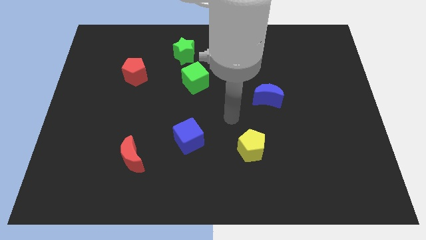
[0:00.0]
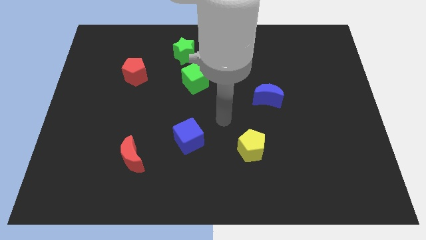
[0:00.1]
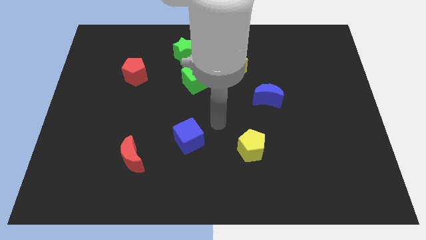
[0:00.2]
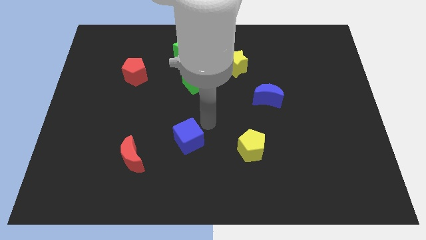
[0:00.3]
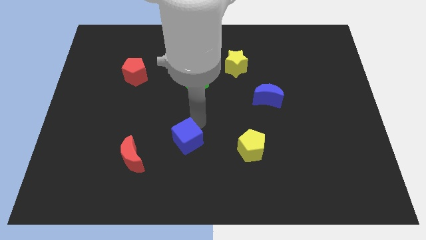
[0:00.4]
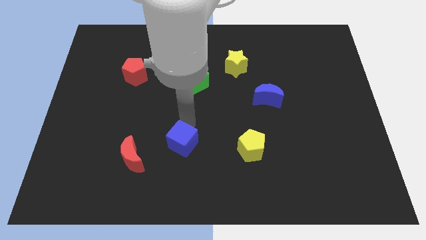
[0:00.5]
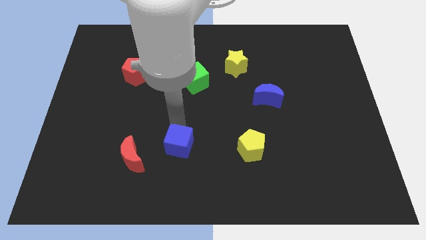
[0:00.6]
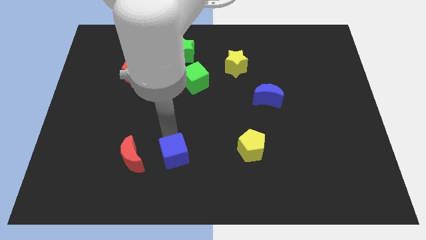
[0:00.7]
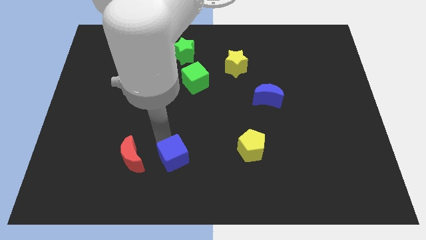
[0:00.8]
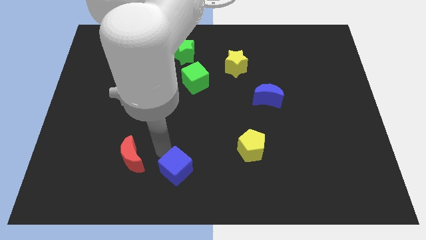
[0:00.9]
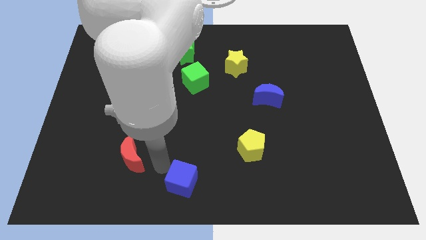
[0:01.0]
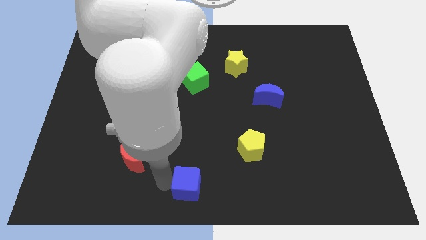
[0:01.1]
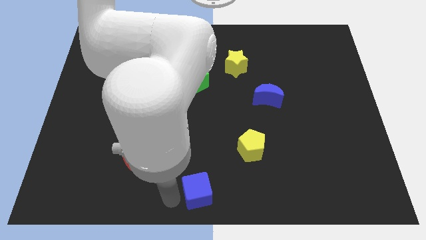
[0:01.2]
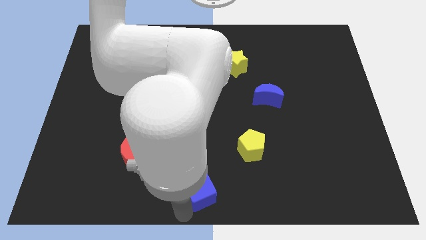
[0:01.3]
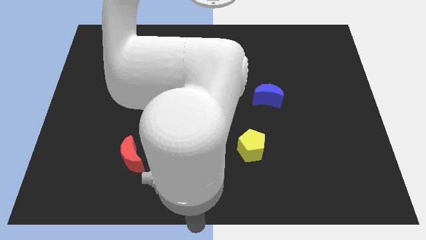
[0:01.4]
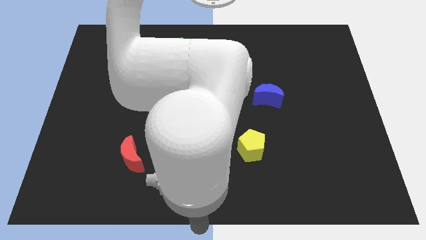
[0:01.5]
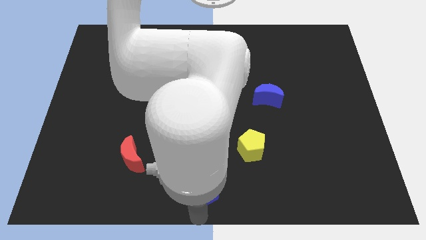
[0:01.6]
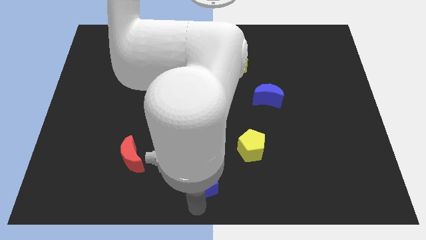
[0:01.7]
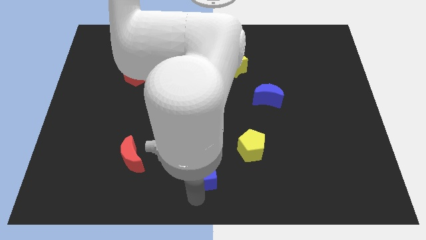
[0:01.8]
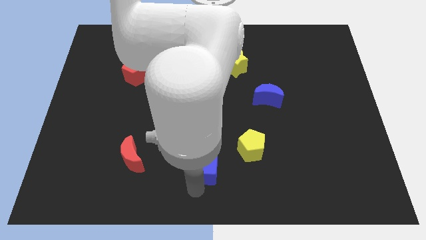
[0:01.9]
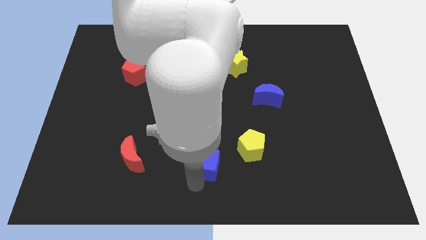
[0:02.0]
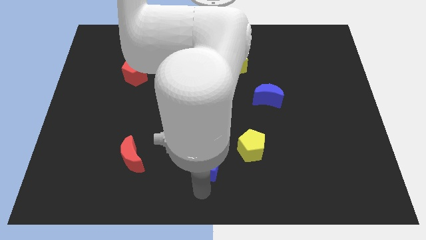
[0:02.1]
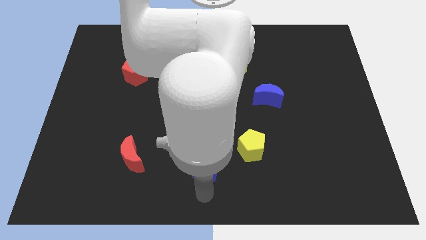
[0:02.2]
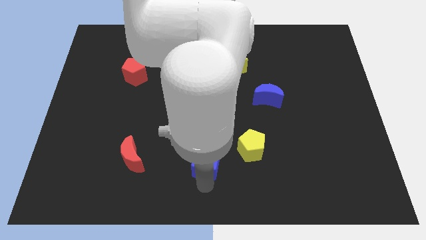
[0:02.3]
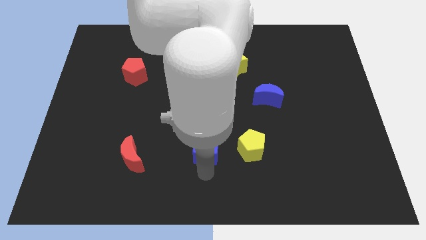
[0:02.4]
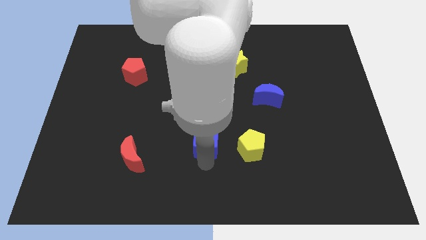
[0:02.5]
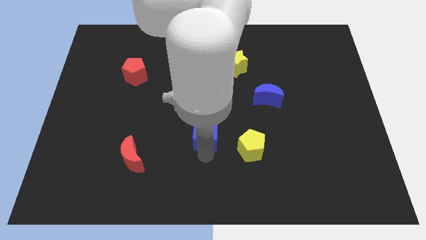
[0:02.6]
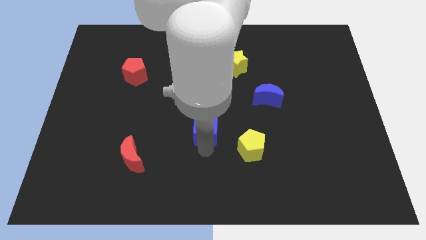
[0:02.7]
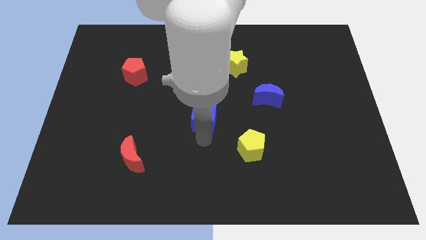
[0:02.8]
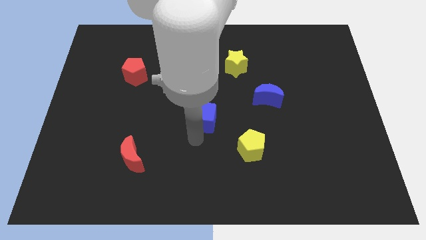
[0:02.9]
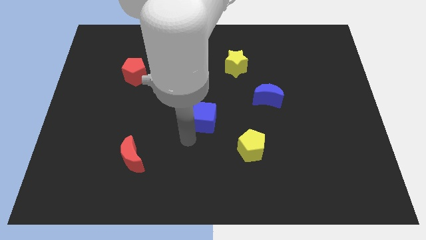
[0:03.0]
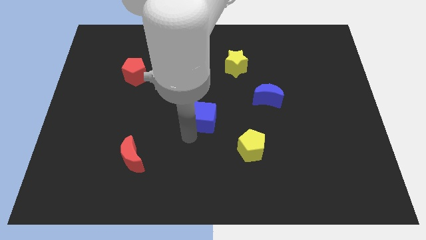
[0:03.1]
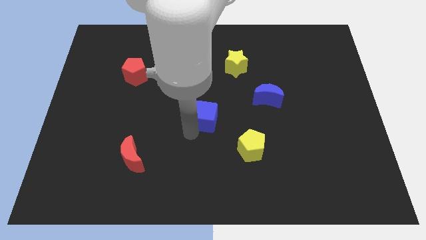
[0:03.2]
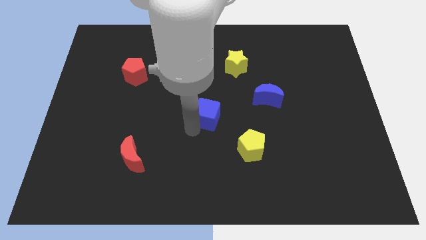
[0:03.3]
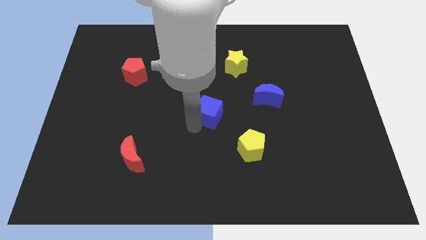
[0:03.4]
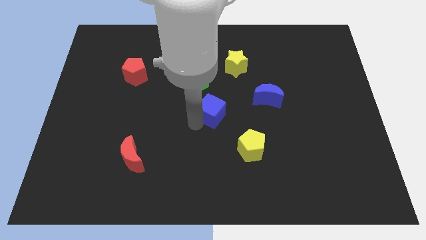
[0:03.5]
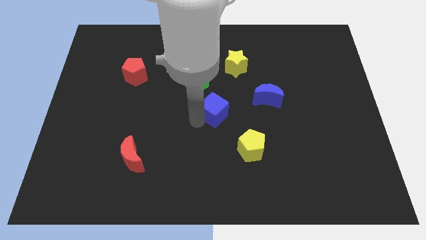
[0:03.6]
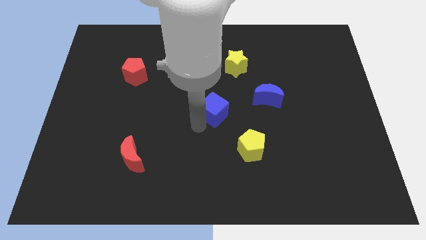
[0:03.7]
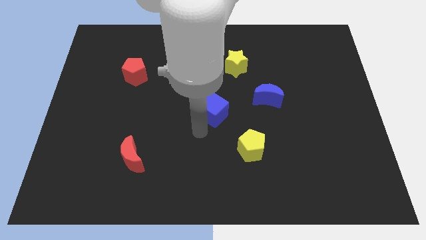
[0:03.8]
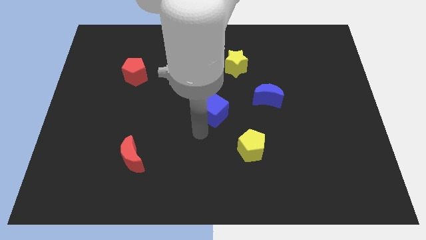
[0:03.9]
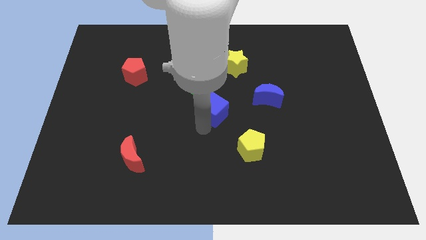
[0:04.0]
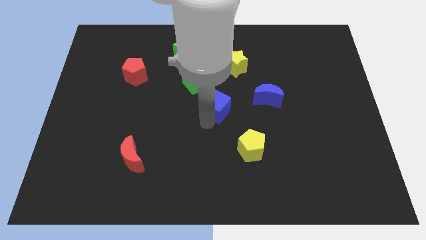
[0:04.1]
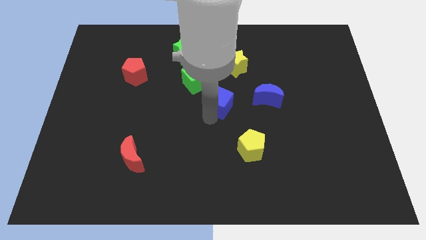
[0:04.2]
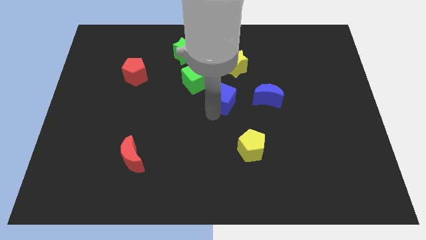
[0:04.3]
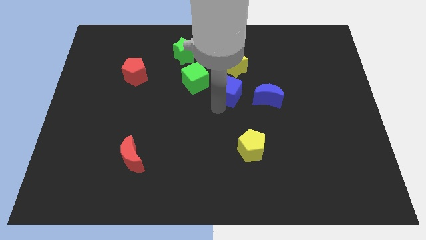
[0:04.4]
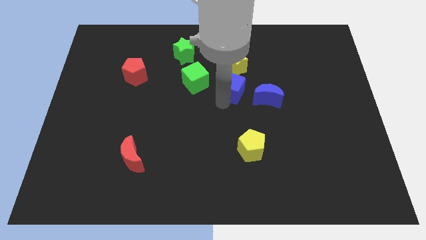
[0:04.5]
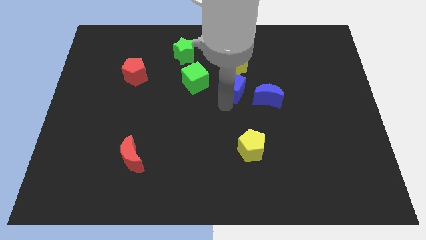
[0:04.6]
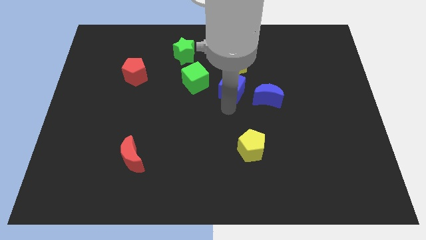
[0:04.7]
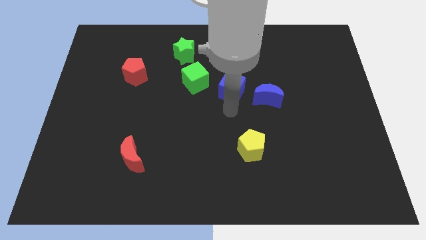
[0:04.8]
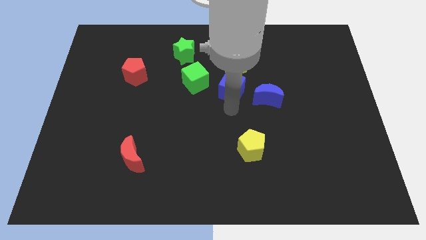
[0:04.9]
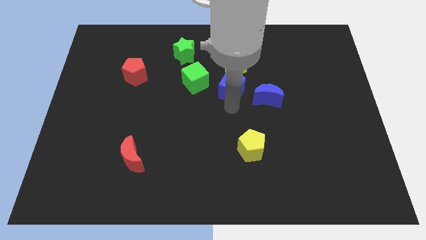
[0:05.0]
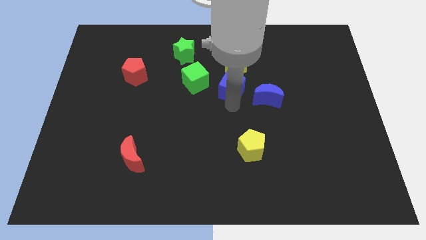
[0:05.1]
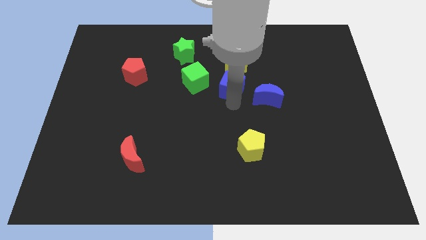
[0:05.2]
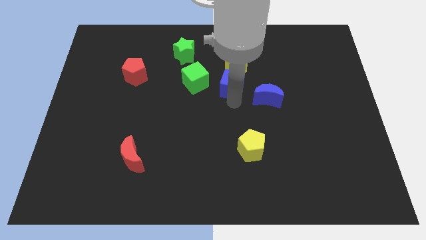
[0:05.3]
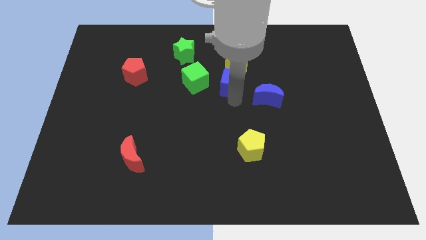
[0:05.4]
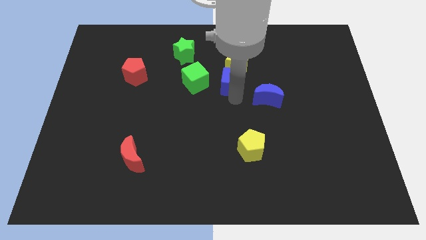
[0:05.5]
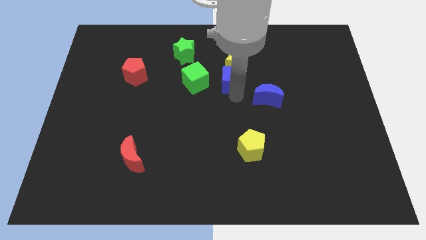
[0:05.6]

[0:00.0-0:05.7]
slide the blue cube towards the yellow star

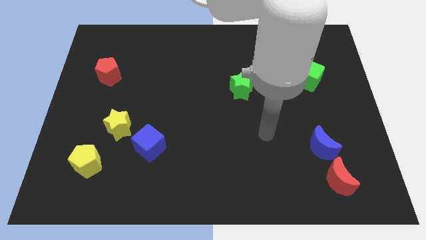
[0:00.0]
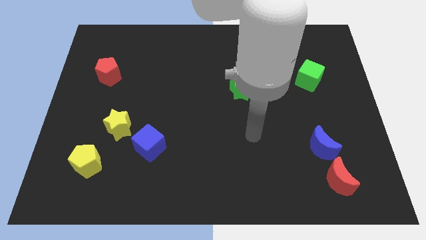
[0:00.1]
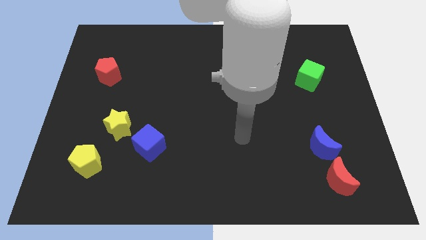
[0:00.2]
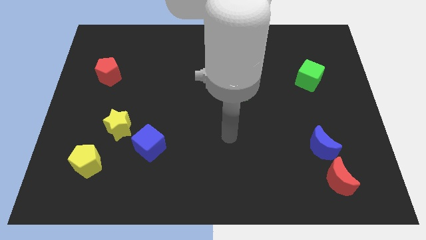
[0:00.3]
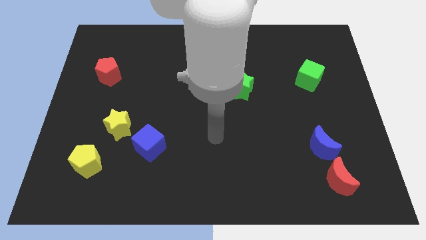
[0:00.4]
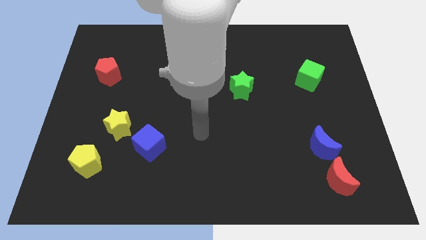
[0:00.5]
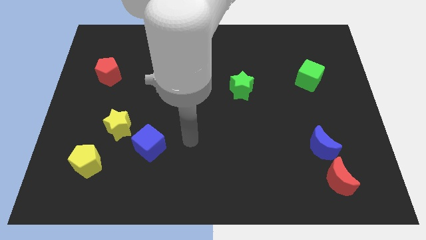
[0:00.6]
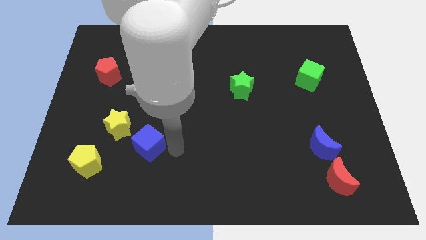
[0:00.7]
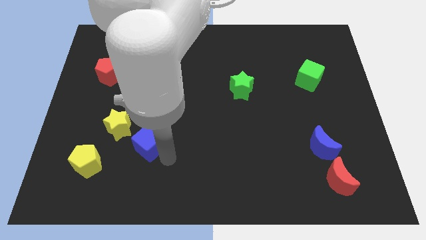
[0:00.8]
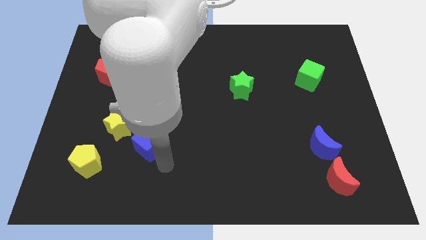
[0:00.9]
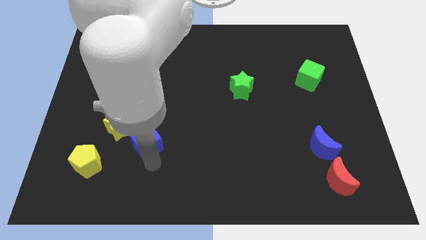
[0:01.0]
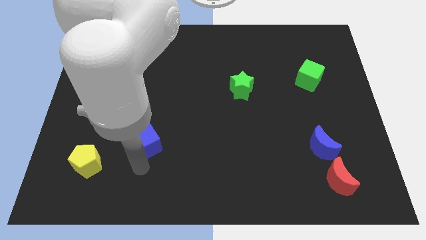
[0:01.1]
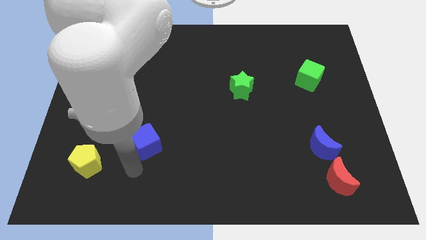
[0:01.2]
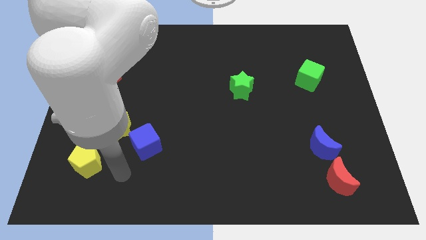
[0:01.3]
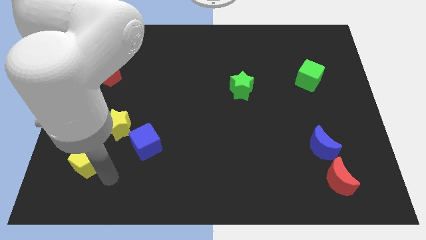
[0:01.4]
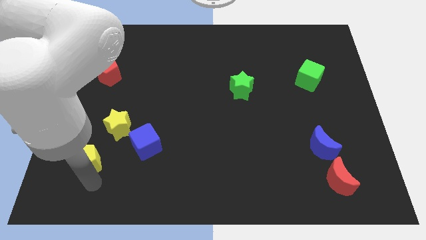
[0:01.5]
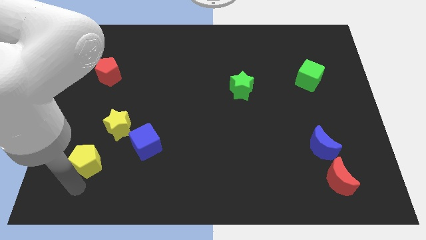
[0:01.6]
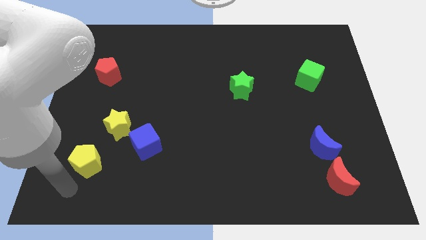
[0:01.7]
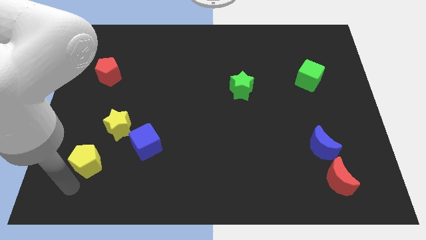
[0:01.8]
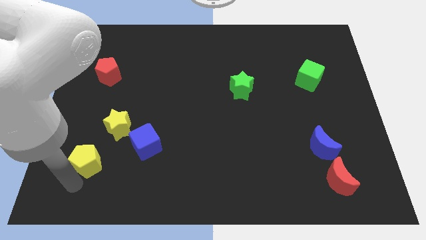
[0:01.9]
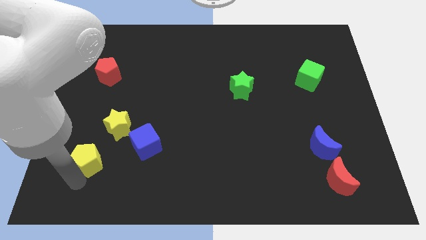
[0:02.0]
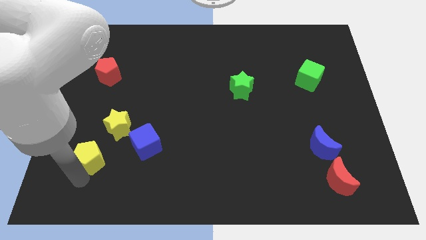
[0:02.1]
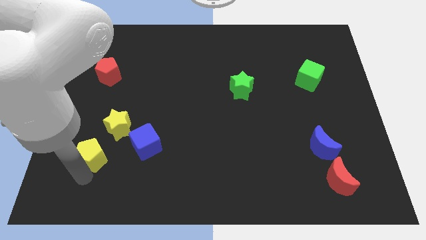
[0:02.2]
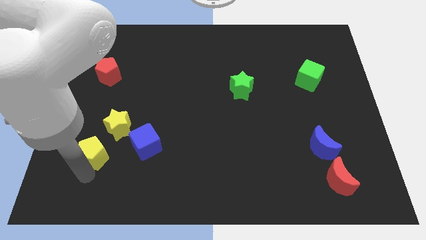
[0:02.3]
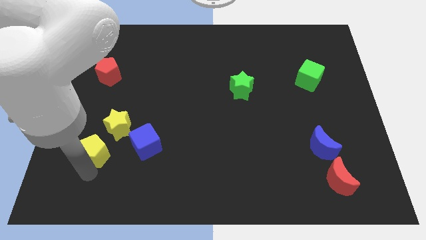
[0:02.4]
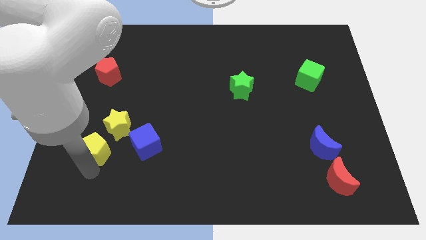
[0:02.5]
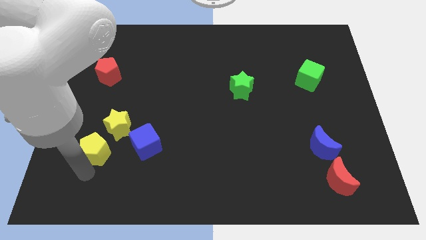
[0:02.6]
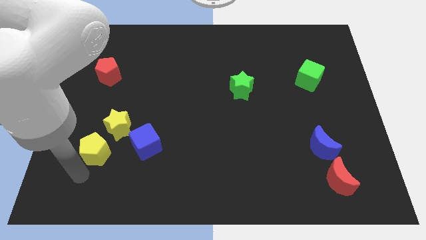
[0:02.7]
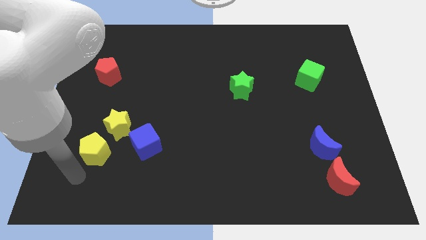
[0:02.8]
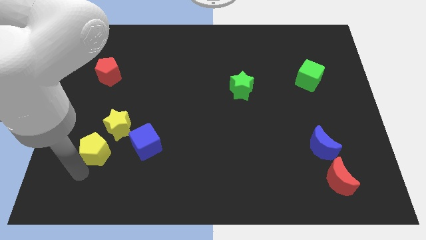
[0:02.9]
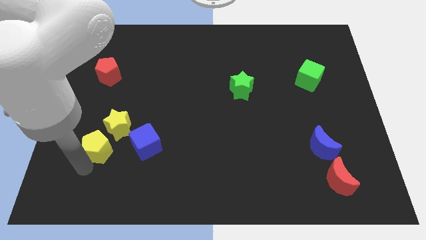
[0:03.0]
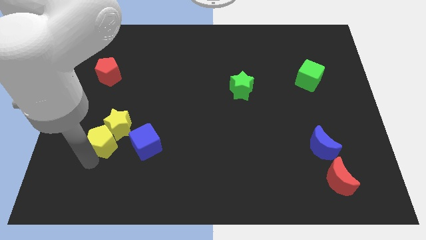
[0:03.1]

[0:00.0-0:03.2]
move the yellow pentagon to the yellow star
